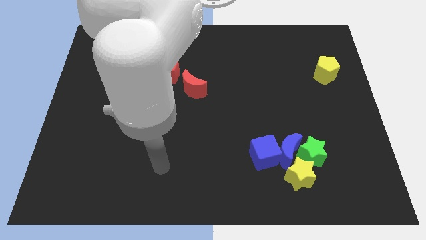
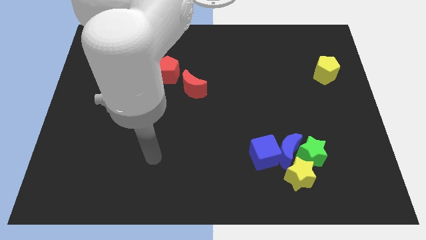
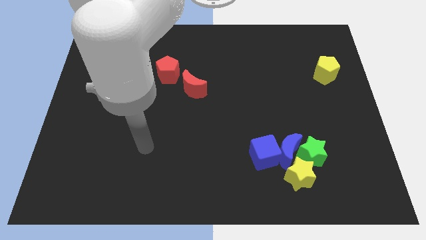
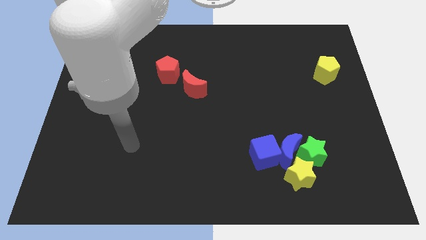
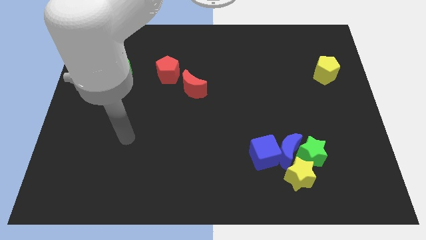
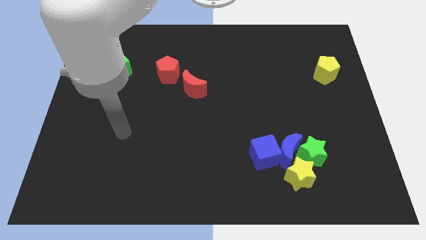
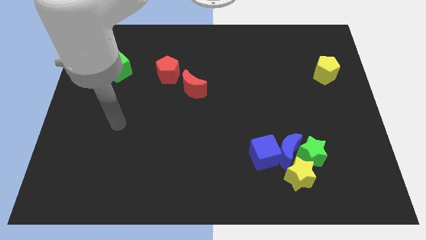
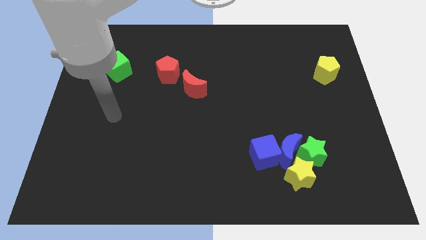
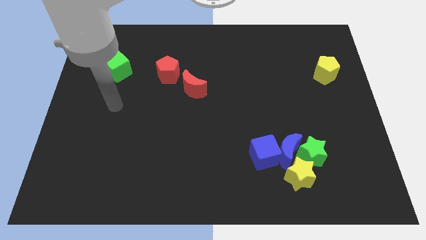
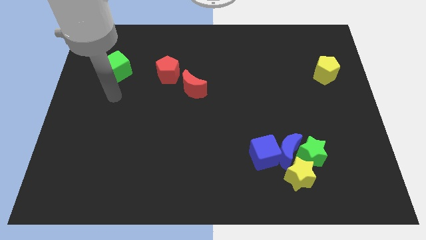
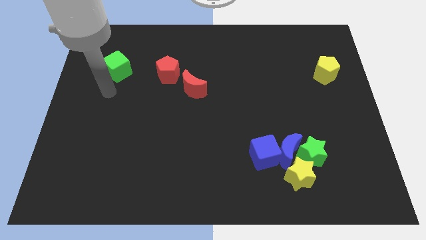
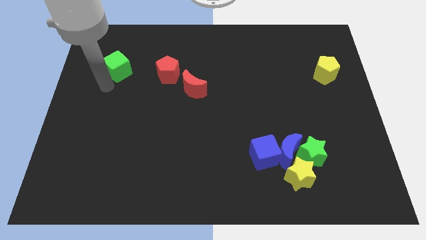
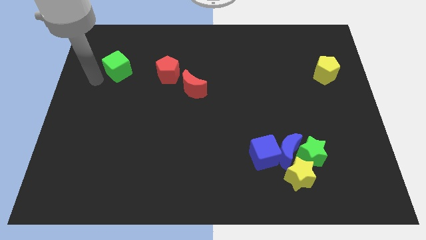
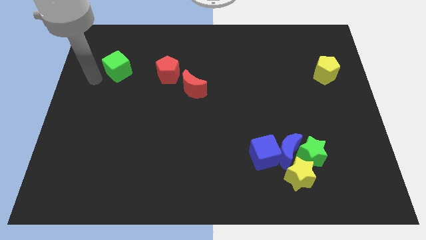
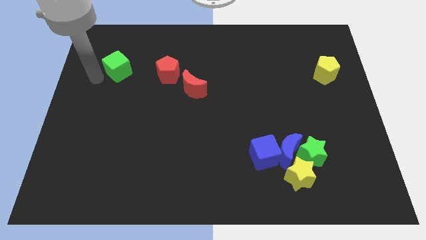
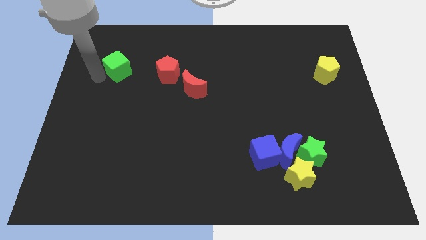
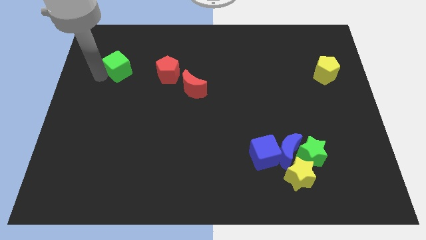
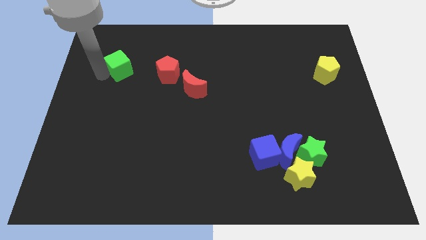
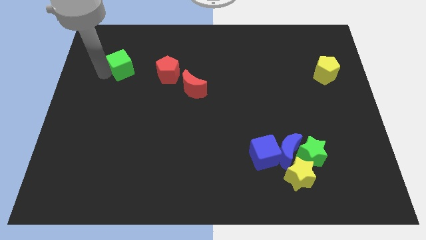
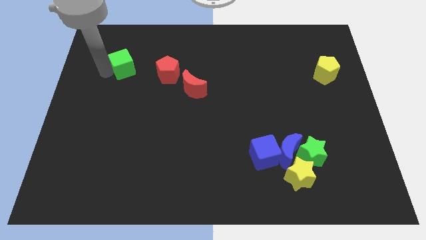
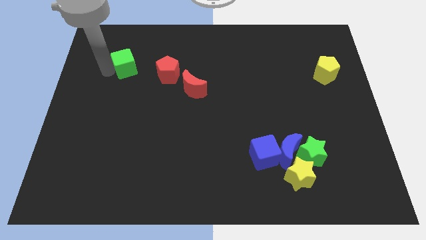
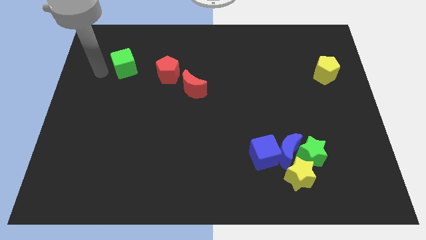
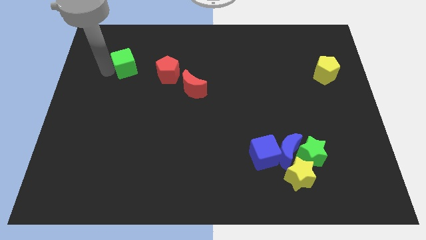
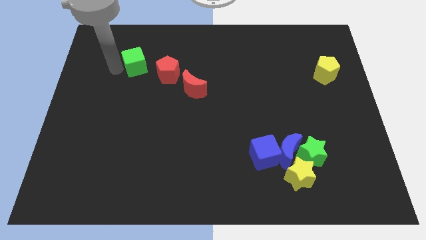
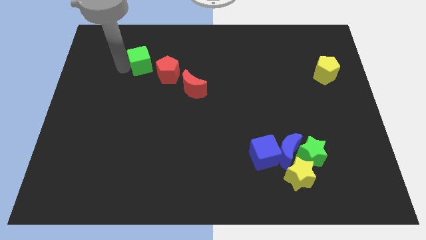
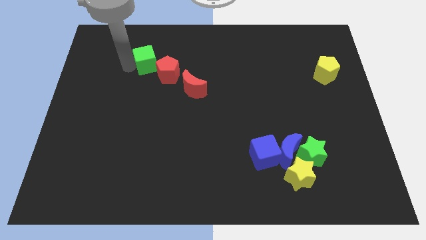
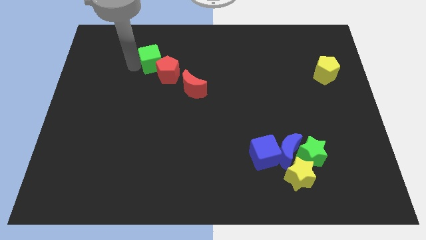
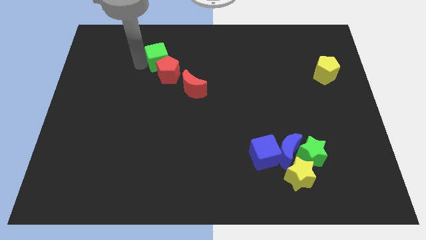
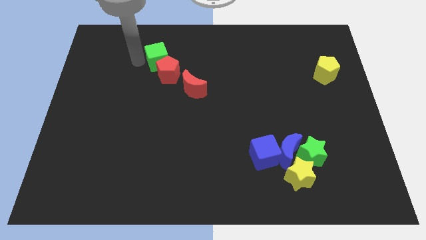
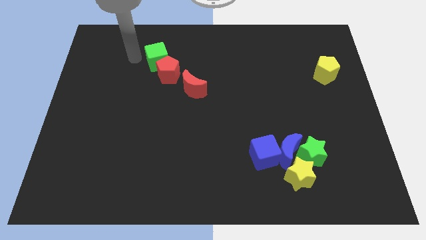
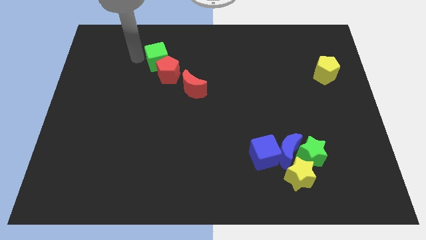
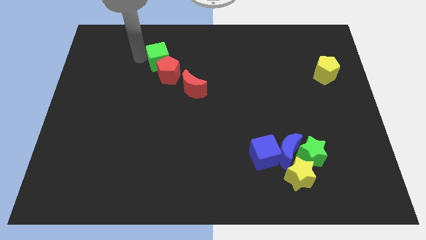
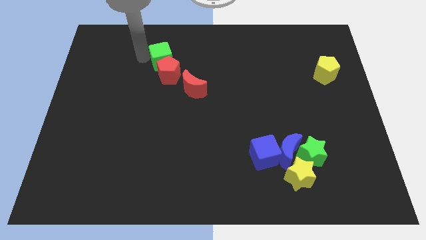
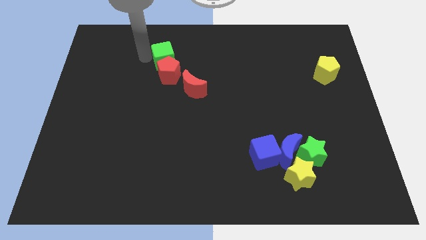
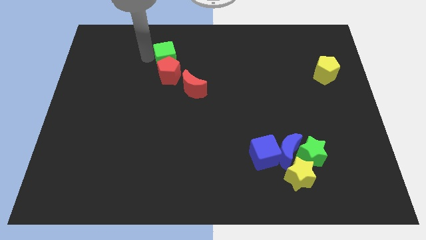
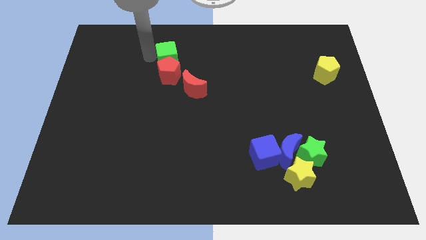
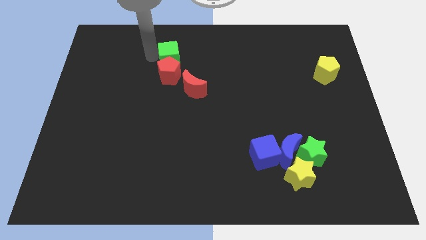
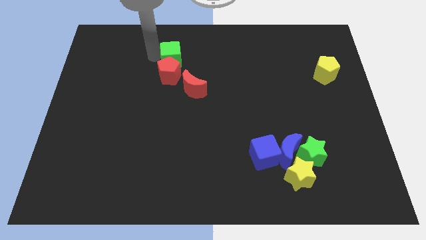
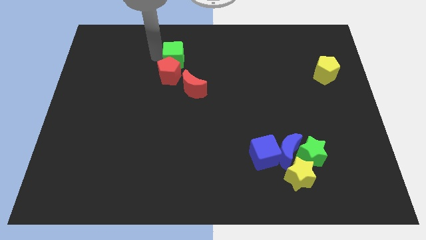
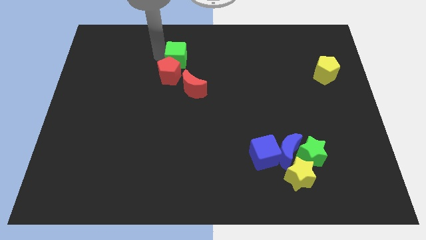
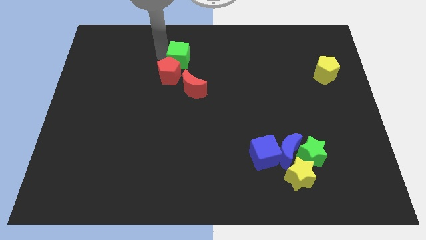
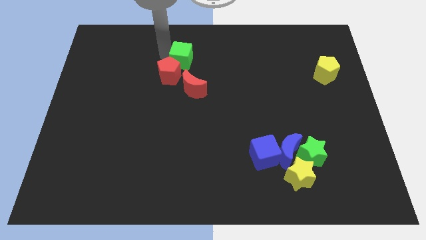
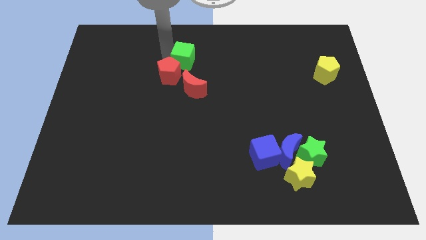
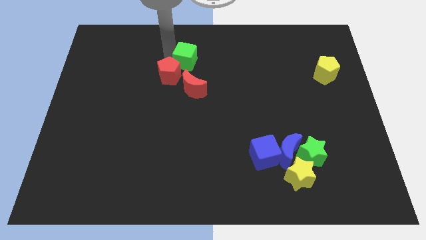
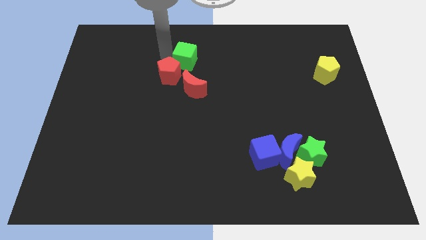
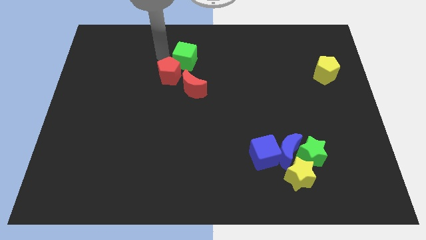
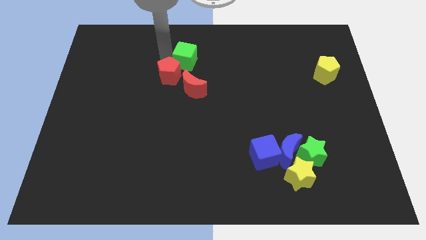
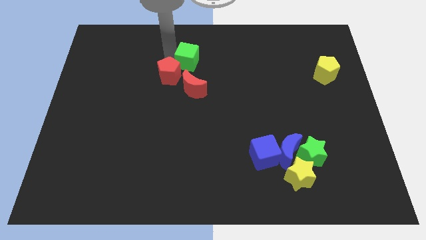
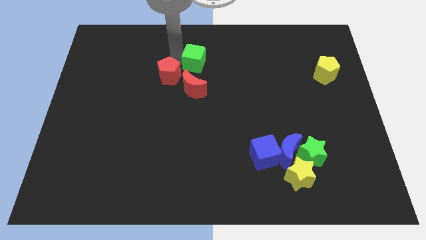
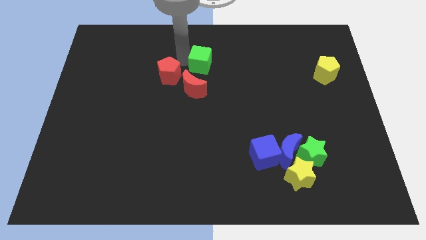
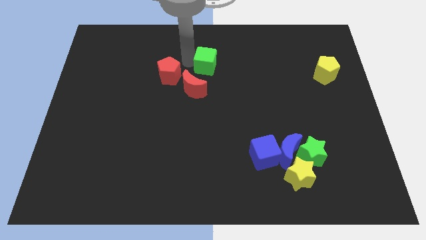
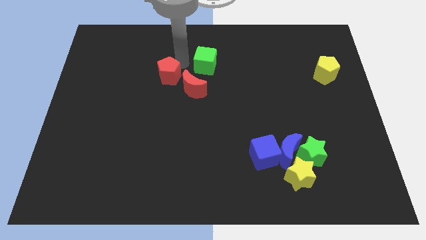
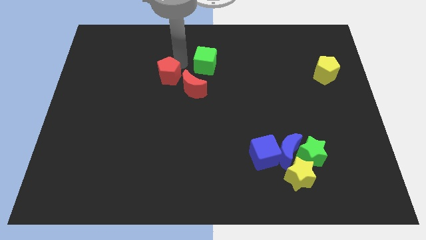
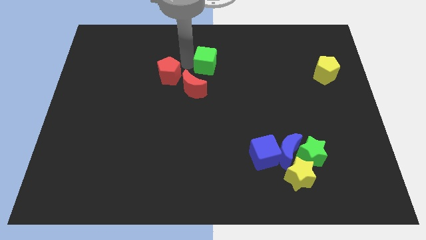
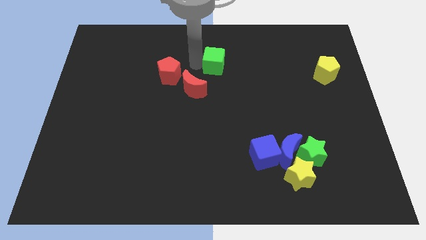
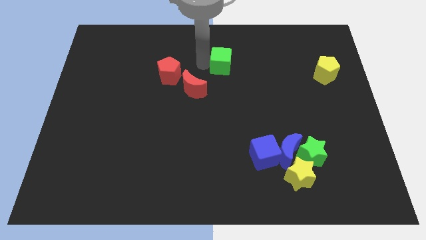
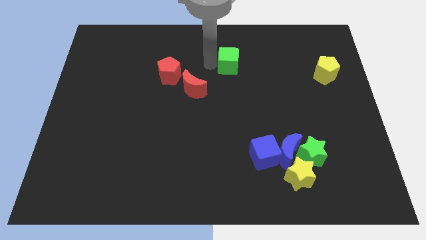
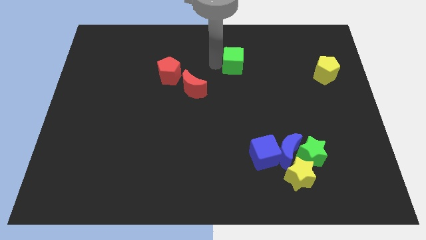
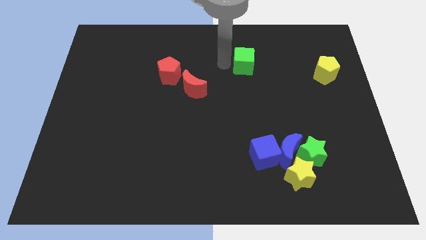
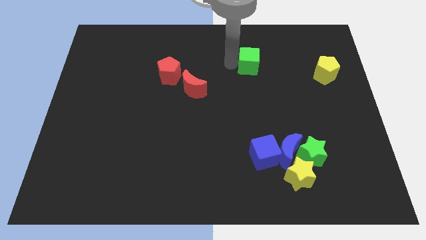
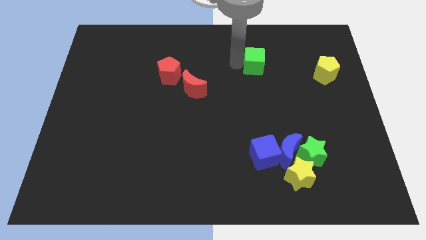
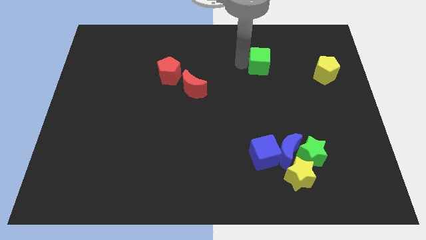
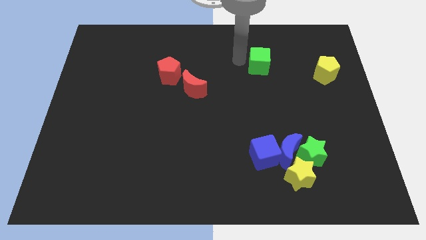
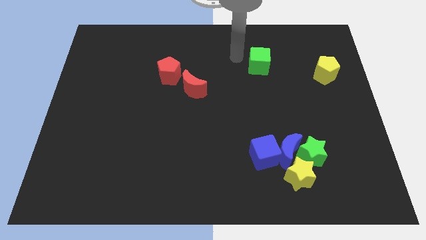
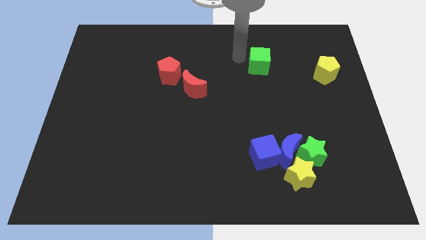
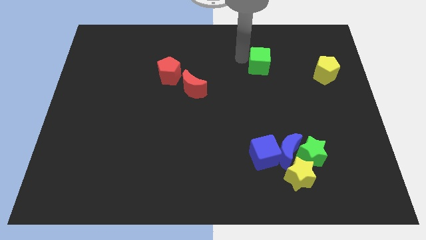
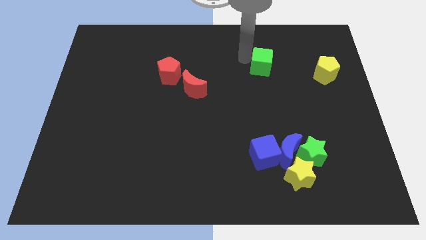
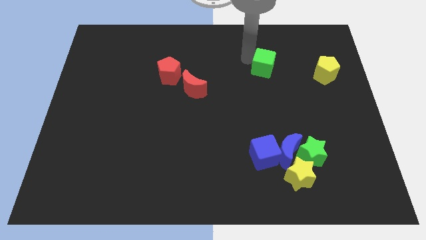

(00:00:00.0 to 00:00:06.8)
put the green cube left of the yellow pentagon
